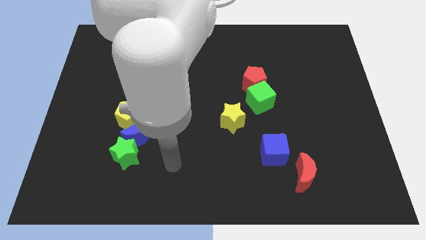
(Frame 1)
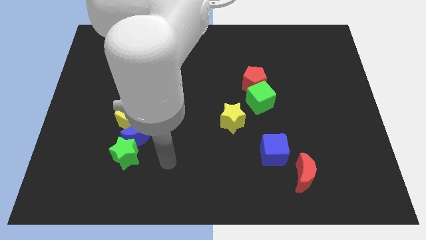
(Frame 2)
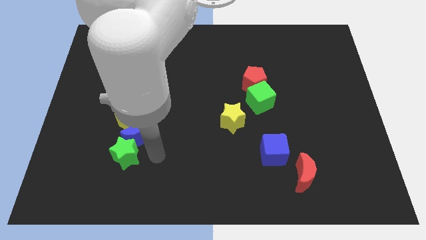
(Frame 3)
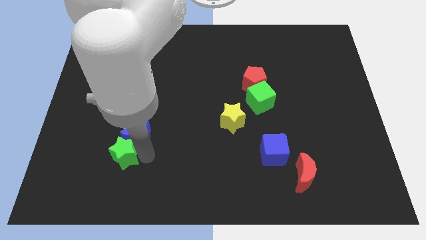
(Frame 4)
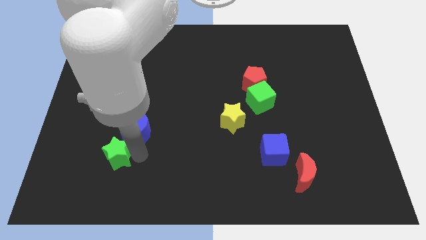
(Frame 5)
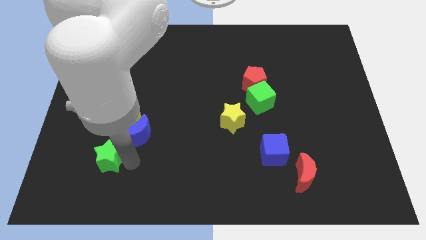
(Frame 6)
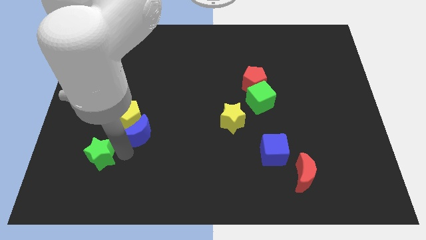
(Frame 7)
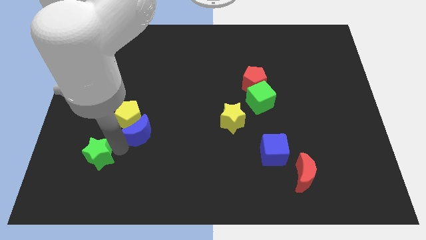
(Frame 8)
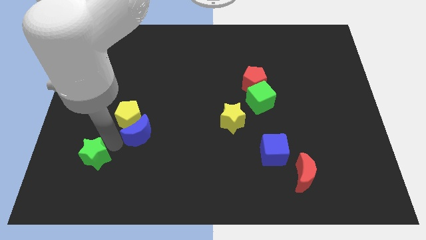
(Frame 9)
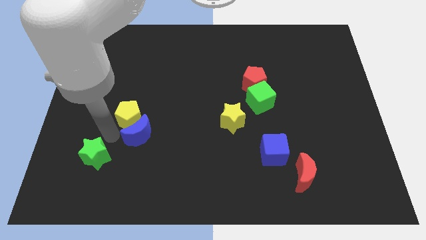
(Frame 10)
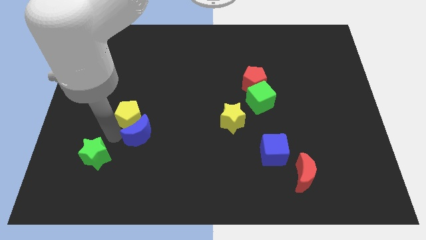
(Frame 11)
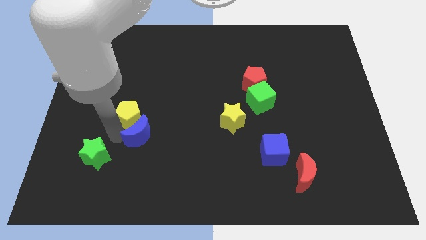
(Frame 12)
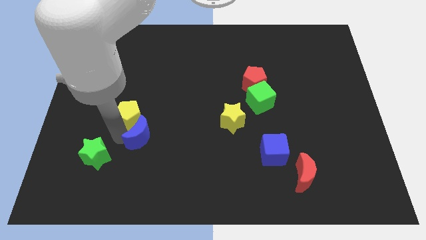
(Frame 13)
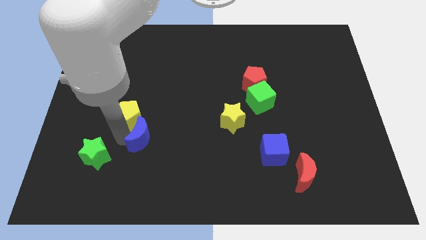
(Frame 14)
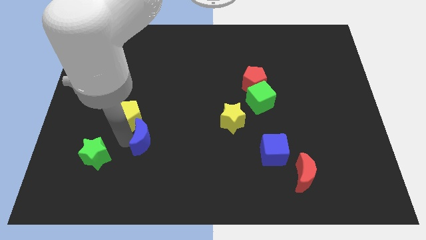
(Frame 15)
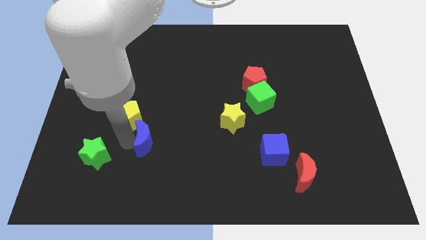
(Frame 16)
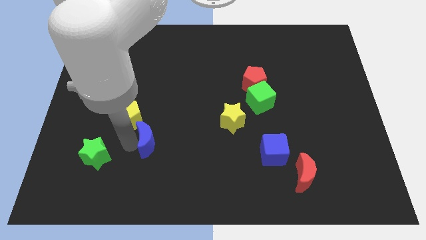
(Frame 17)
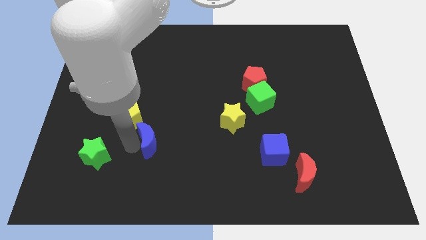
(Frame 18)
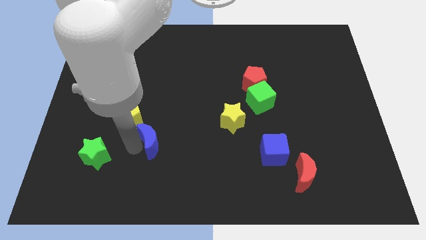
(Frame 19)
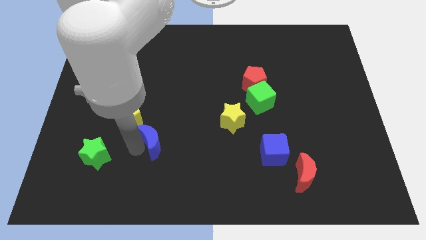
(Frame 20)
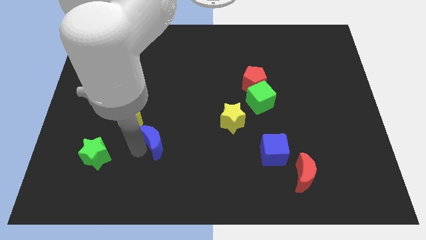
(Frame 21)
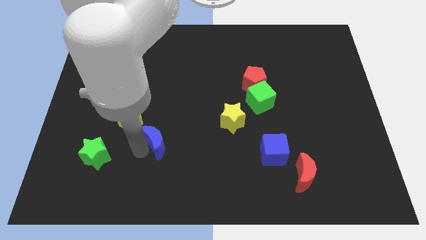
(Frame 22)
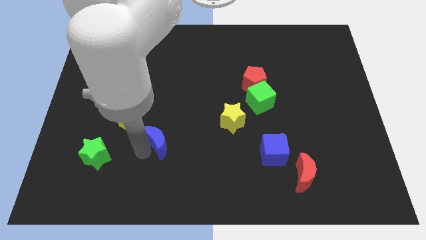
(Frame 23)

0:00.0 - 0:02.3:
move the blue moon away from the green star and yellow pentagon

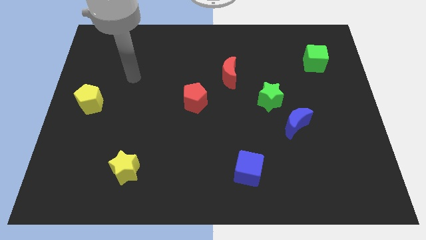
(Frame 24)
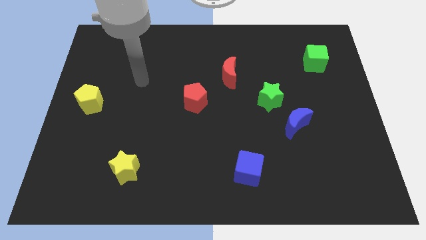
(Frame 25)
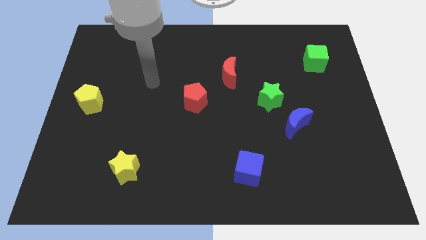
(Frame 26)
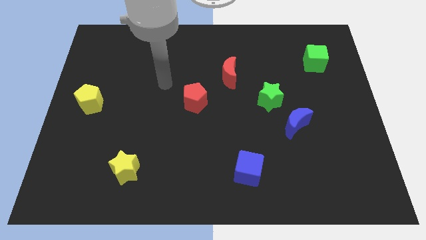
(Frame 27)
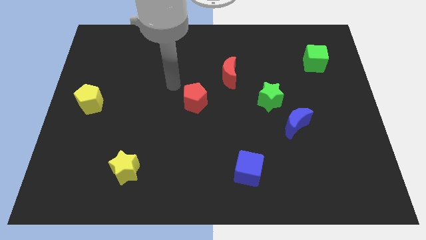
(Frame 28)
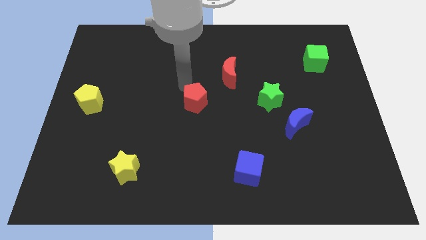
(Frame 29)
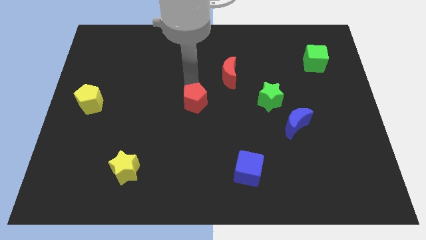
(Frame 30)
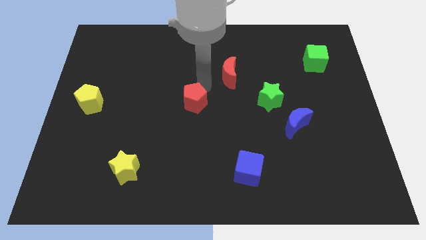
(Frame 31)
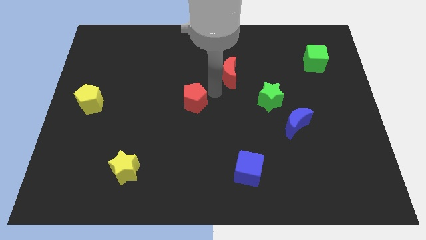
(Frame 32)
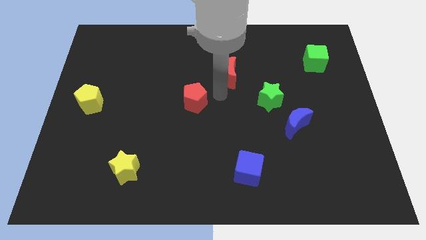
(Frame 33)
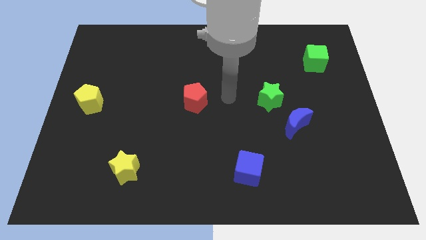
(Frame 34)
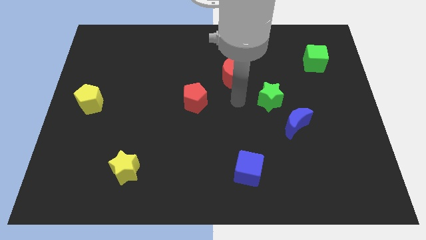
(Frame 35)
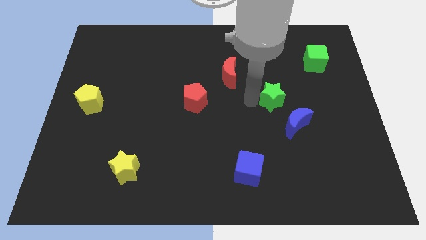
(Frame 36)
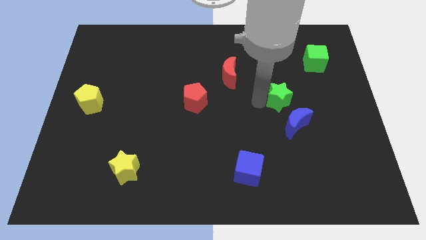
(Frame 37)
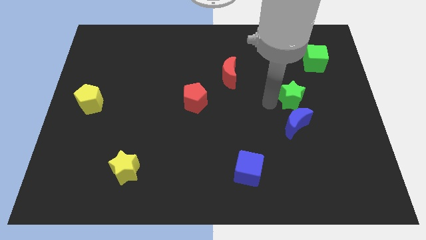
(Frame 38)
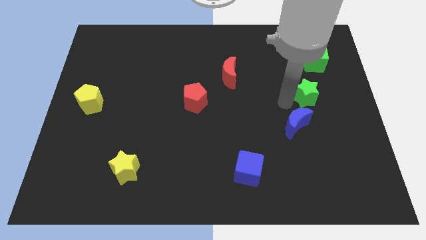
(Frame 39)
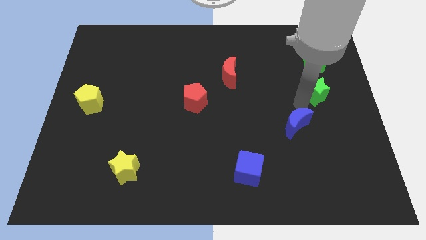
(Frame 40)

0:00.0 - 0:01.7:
move the blue moon away from the green star

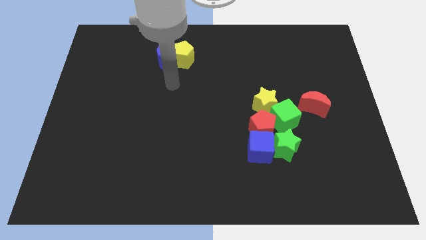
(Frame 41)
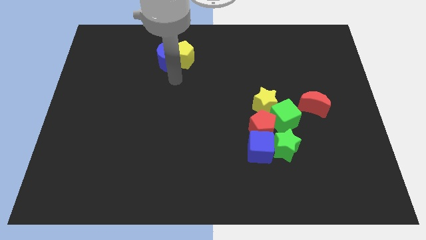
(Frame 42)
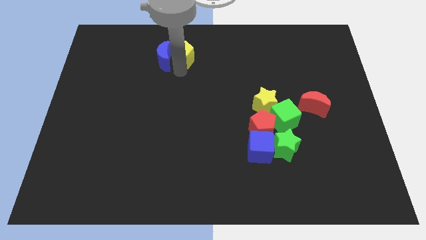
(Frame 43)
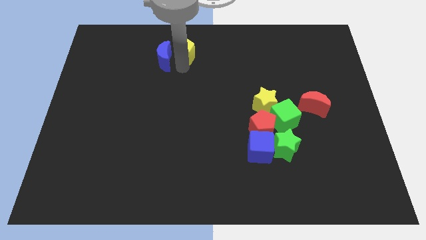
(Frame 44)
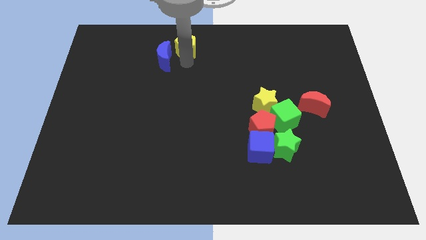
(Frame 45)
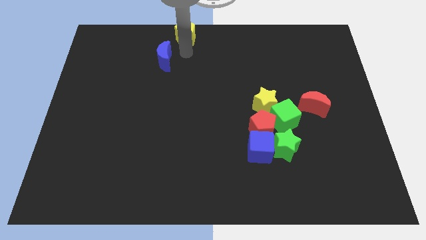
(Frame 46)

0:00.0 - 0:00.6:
pull the blue moon apart from the yellow pentagon

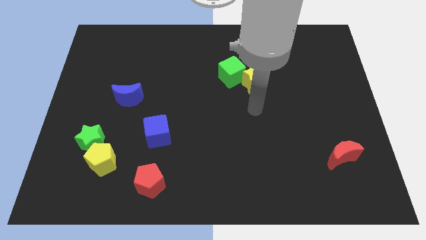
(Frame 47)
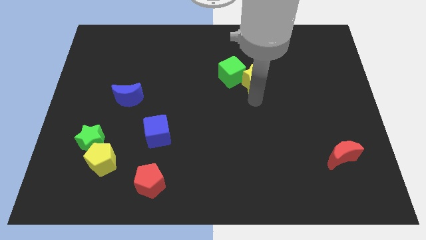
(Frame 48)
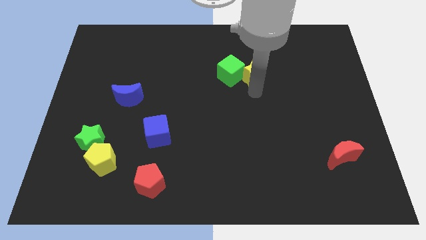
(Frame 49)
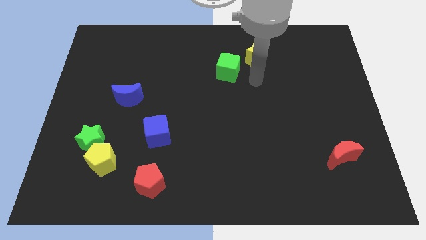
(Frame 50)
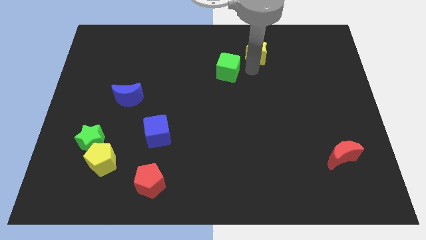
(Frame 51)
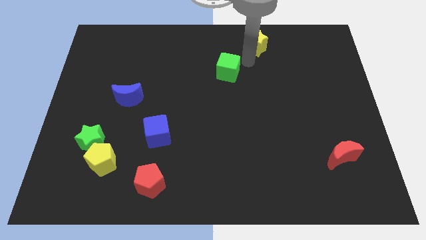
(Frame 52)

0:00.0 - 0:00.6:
pull the green cube apart from the yellow star

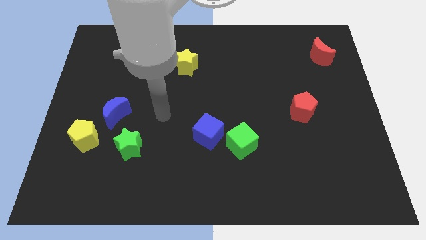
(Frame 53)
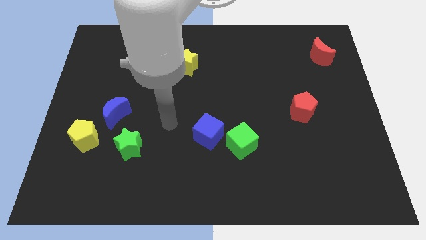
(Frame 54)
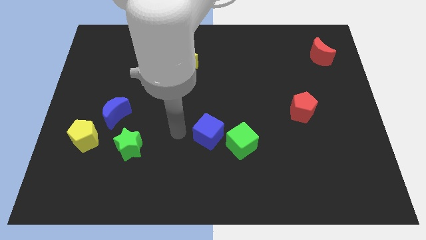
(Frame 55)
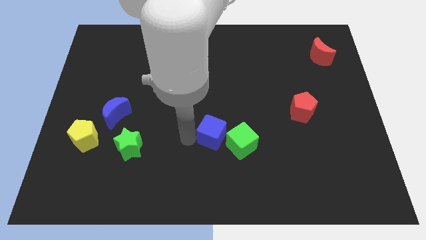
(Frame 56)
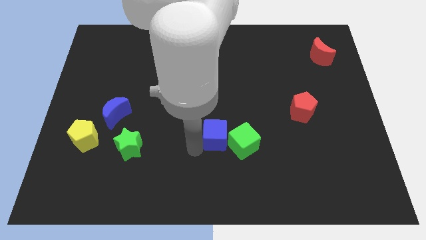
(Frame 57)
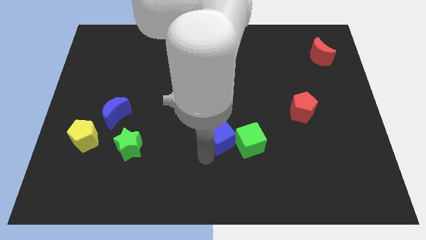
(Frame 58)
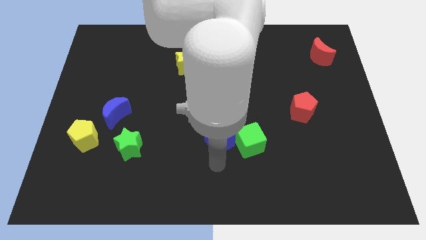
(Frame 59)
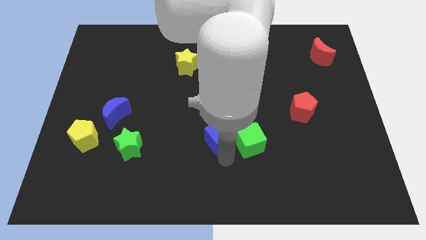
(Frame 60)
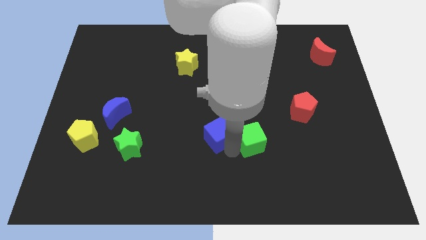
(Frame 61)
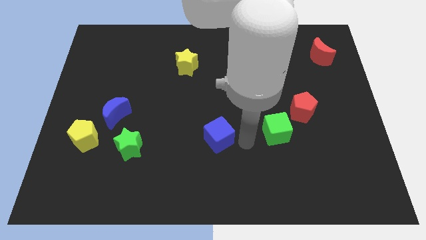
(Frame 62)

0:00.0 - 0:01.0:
move the blue cube away from the green cube

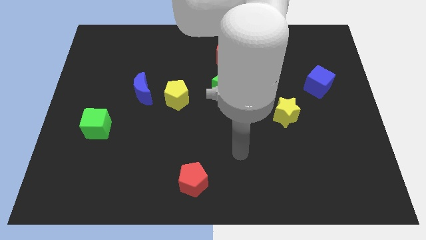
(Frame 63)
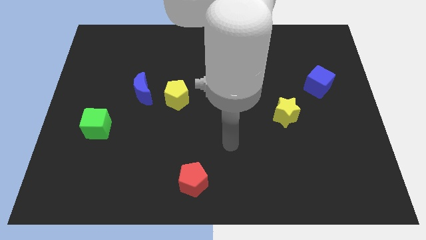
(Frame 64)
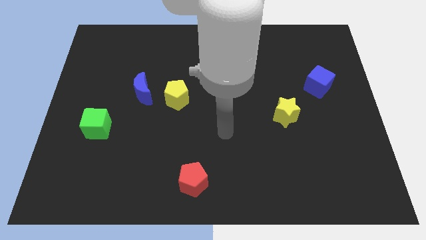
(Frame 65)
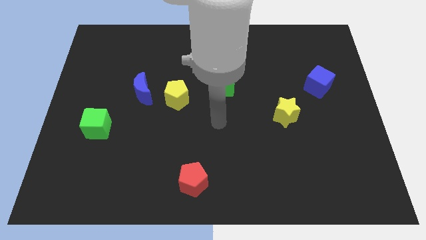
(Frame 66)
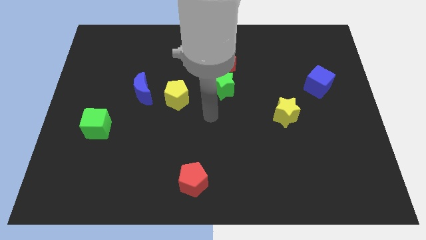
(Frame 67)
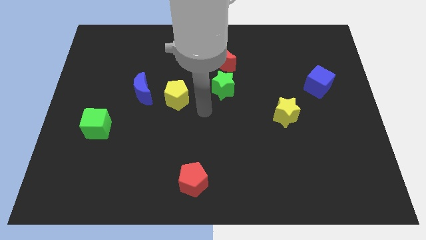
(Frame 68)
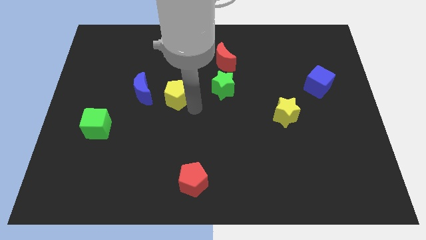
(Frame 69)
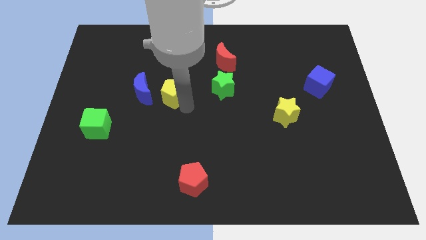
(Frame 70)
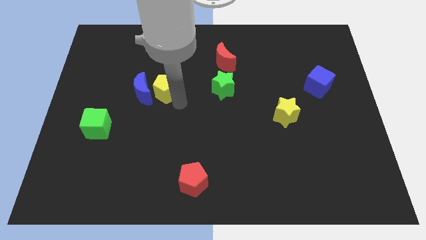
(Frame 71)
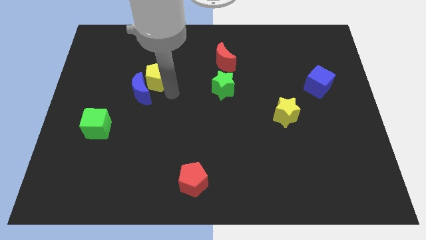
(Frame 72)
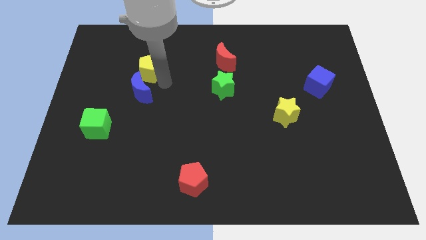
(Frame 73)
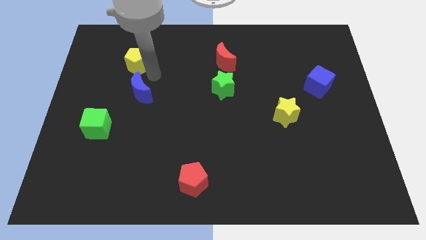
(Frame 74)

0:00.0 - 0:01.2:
move the blue moon away from the yellow pentagon

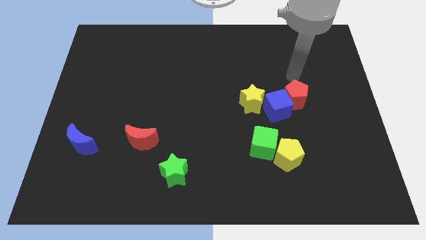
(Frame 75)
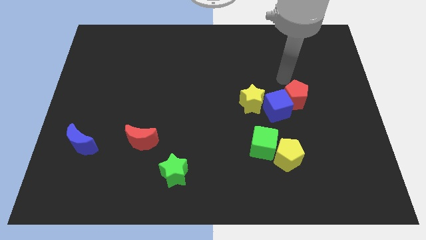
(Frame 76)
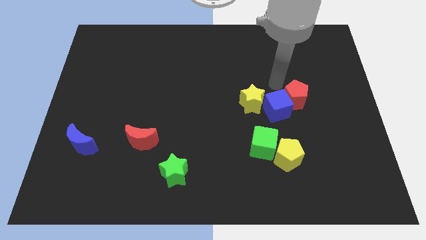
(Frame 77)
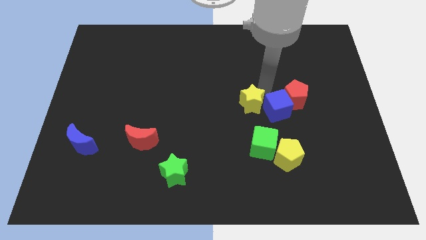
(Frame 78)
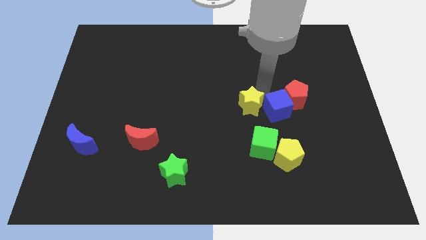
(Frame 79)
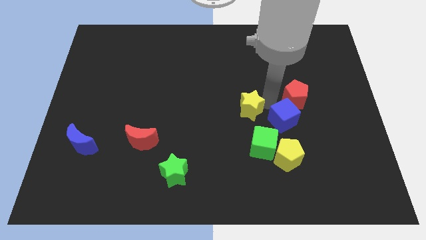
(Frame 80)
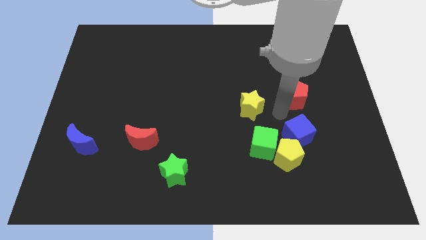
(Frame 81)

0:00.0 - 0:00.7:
move the red pentagon away from the blue cube

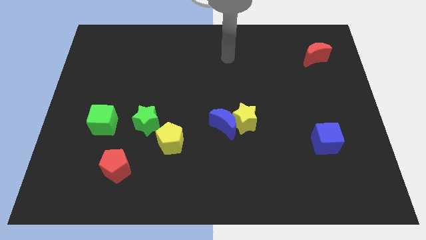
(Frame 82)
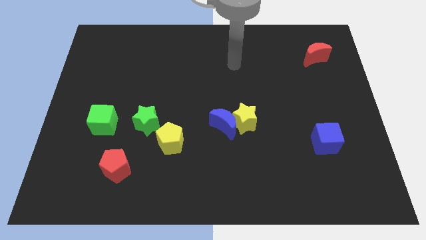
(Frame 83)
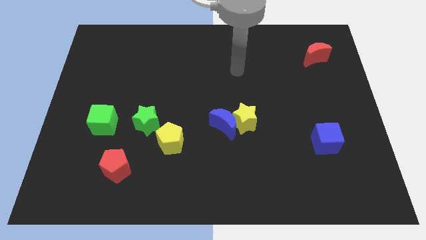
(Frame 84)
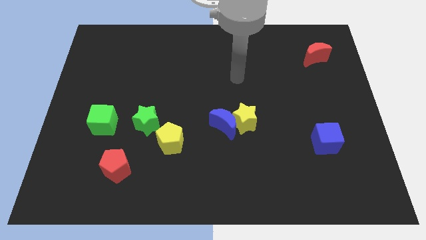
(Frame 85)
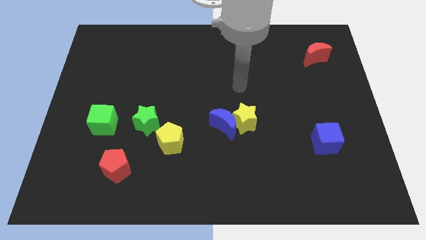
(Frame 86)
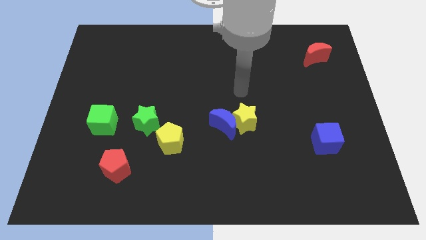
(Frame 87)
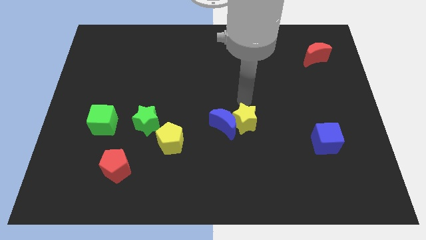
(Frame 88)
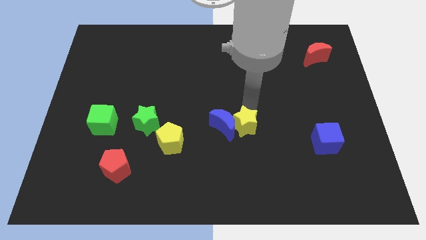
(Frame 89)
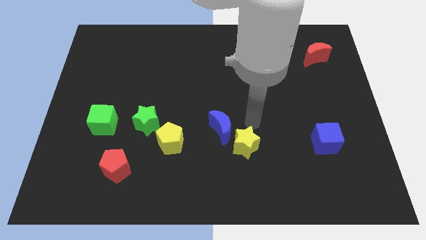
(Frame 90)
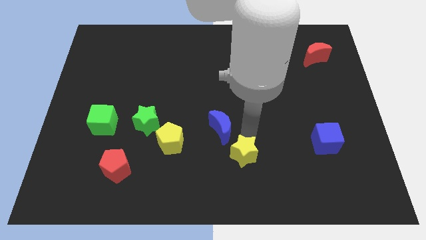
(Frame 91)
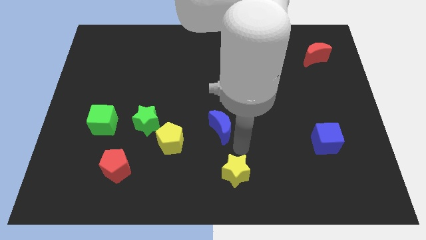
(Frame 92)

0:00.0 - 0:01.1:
pull the blue moon apart from the yellow star
